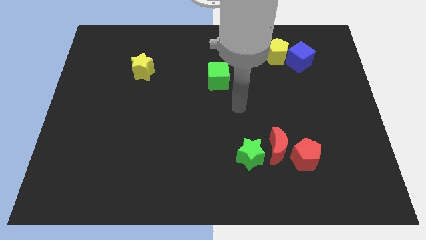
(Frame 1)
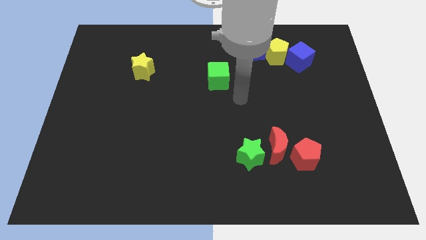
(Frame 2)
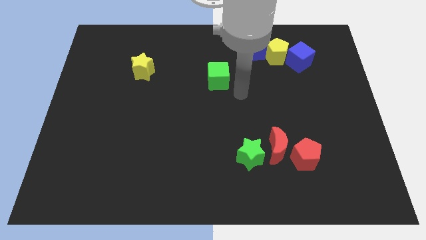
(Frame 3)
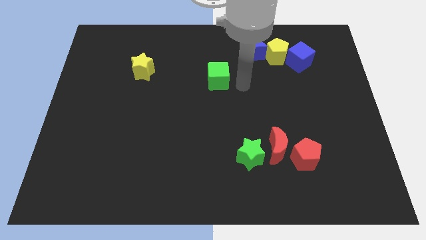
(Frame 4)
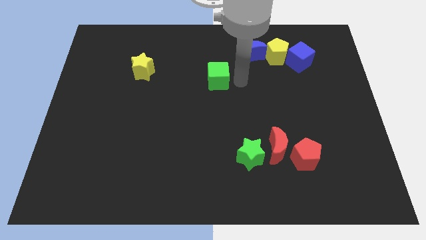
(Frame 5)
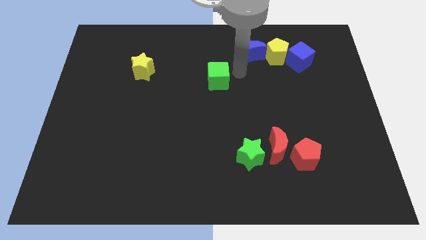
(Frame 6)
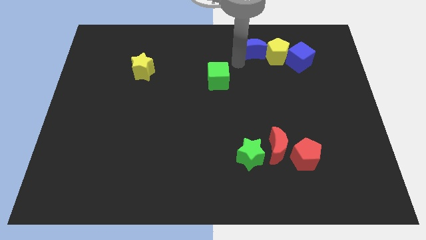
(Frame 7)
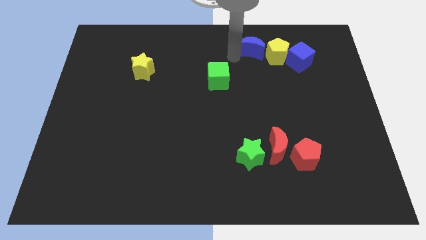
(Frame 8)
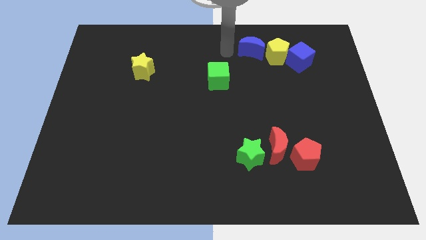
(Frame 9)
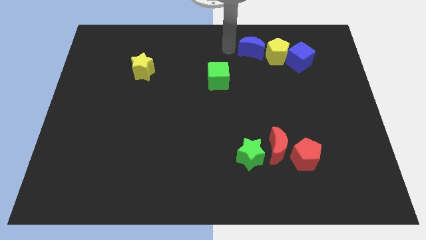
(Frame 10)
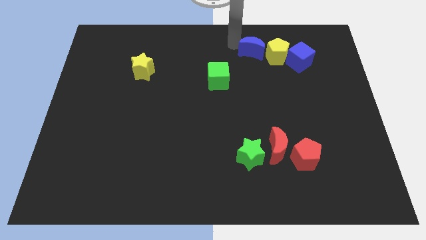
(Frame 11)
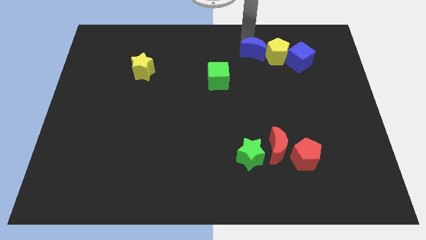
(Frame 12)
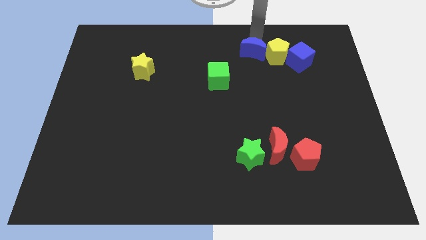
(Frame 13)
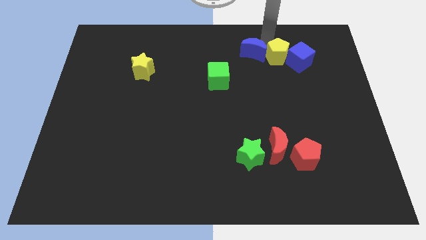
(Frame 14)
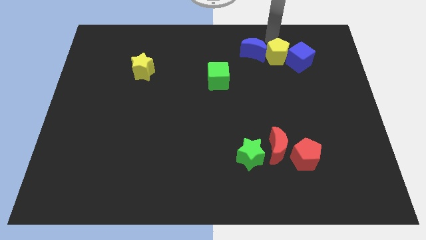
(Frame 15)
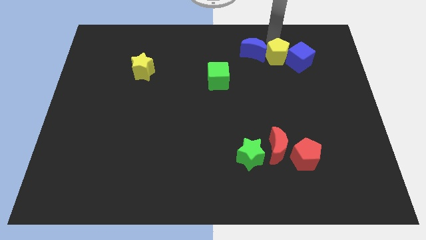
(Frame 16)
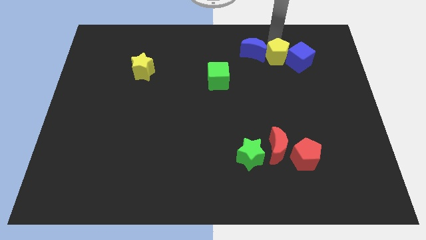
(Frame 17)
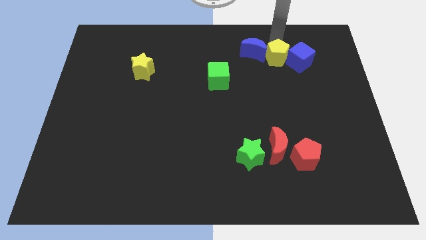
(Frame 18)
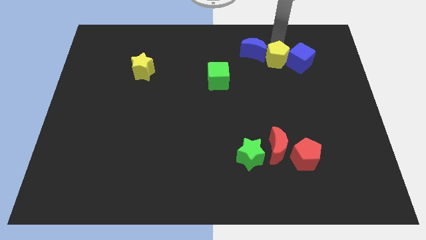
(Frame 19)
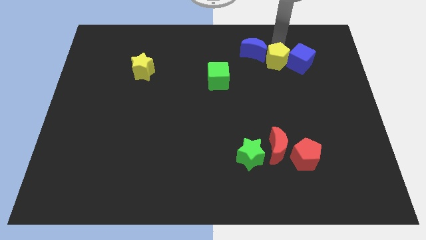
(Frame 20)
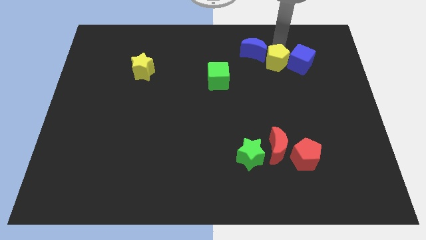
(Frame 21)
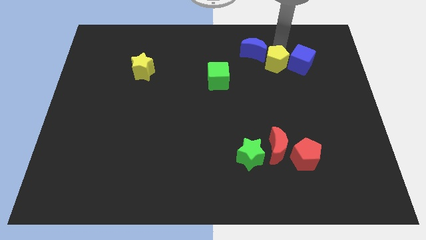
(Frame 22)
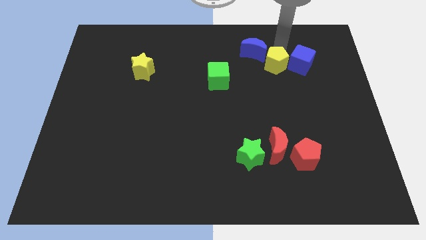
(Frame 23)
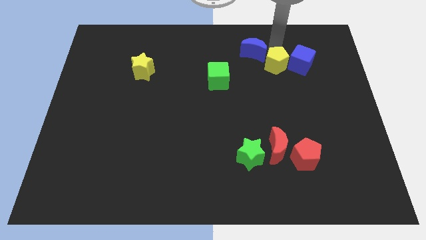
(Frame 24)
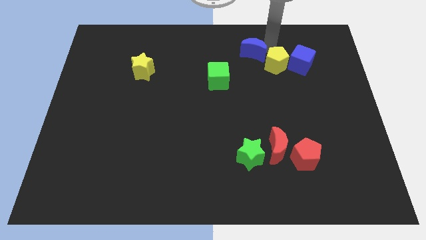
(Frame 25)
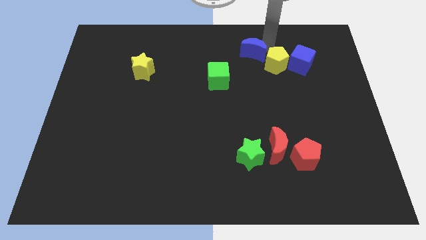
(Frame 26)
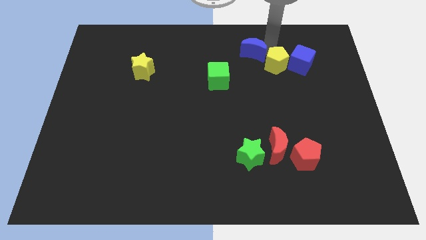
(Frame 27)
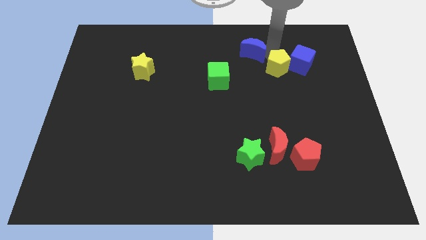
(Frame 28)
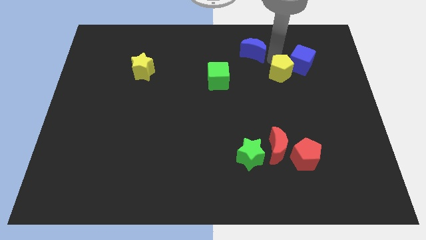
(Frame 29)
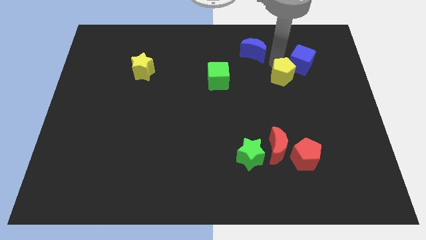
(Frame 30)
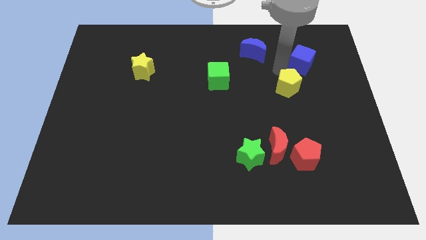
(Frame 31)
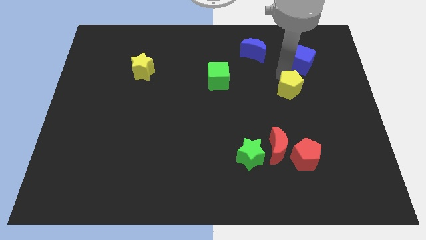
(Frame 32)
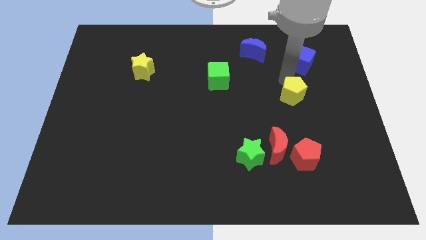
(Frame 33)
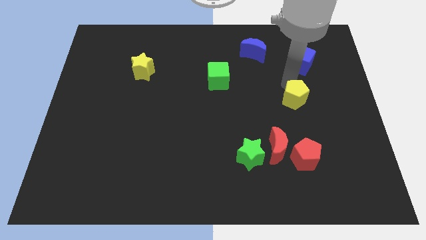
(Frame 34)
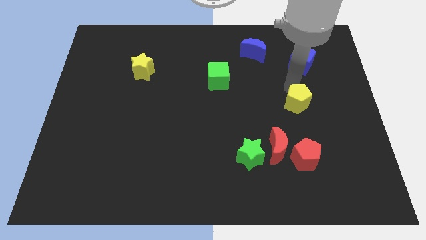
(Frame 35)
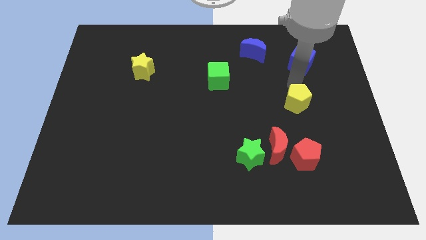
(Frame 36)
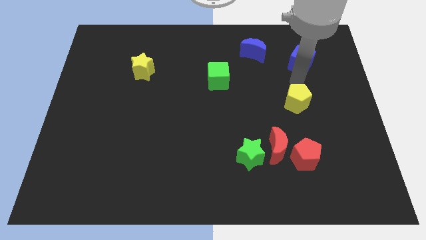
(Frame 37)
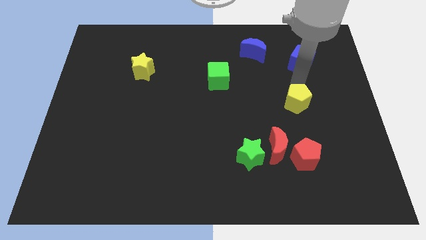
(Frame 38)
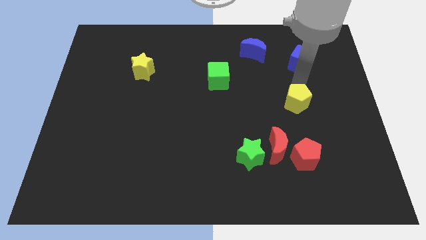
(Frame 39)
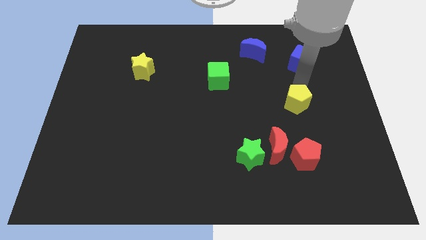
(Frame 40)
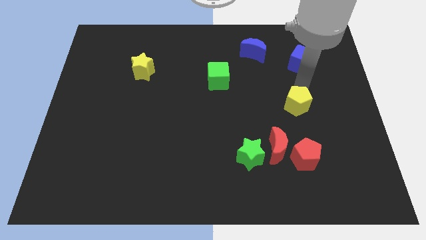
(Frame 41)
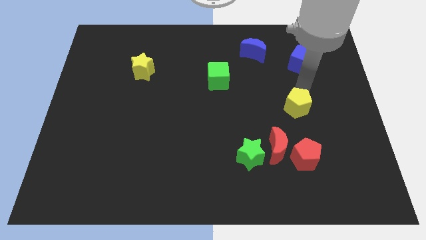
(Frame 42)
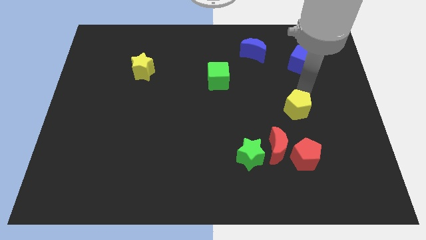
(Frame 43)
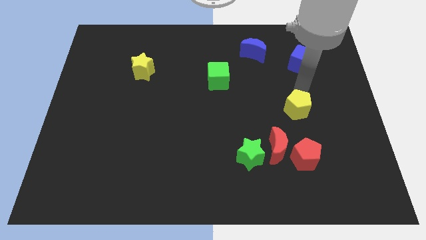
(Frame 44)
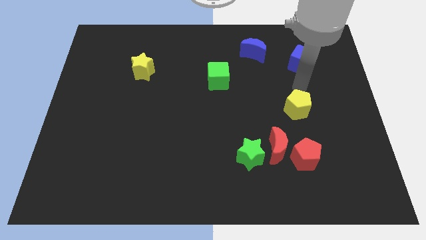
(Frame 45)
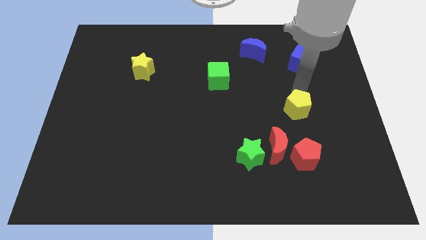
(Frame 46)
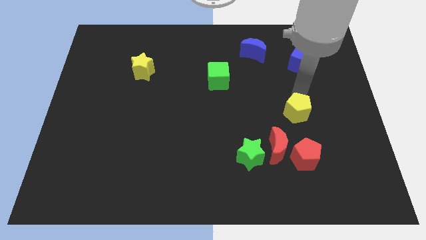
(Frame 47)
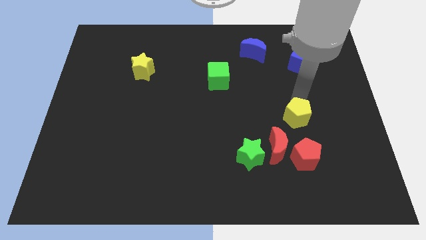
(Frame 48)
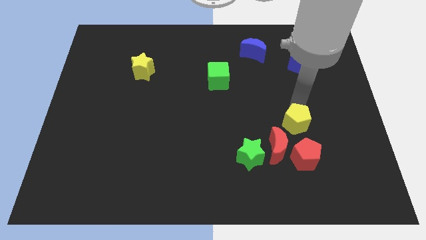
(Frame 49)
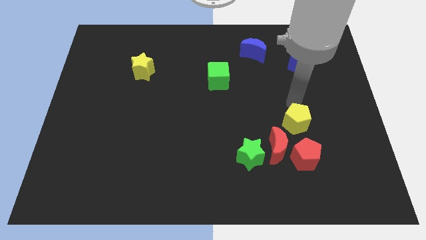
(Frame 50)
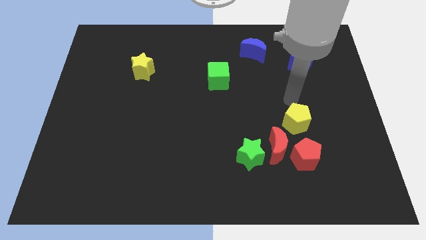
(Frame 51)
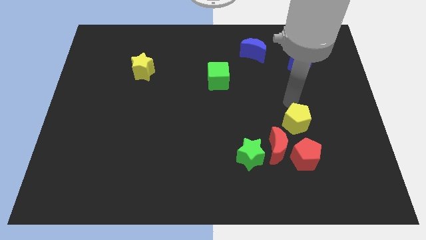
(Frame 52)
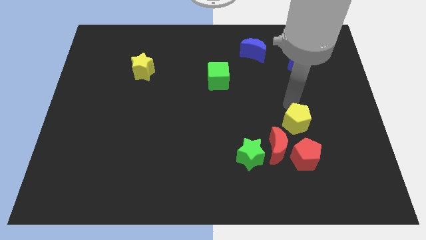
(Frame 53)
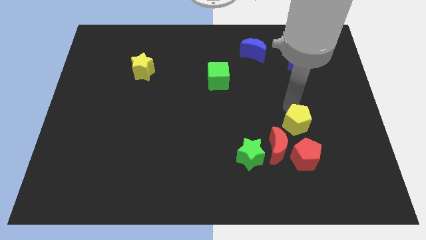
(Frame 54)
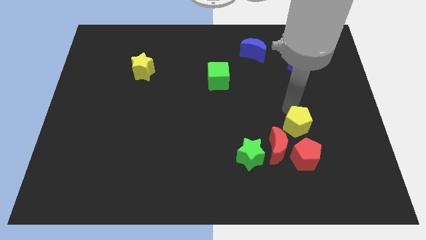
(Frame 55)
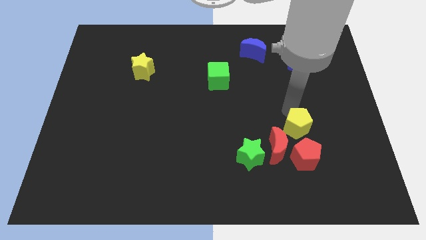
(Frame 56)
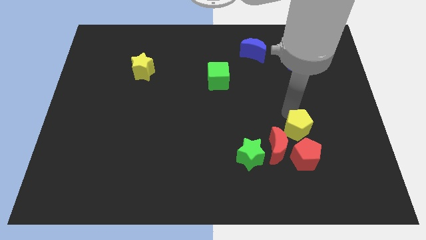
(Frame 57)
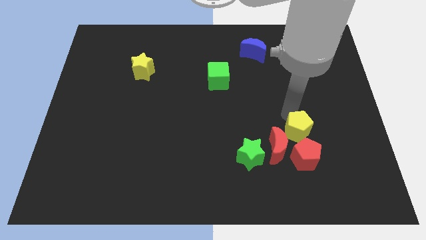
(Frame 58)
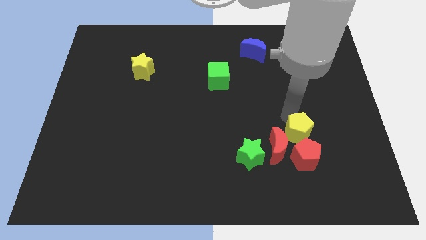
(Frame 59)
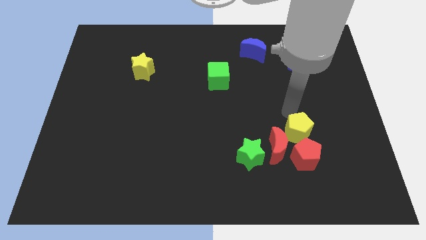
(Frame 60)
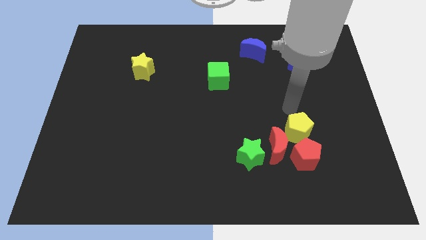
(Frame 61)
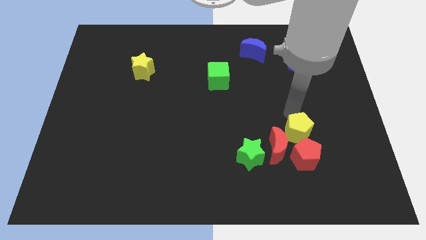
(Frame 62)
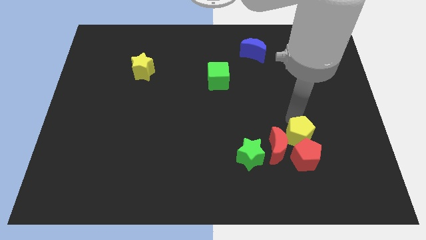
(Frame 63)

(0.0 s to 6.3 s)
put the yellow pentagon next to the red pentagon

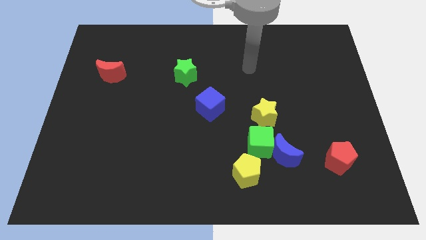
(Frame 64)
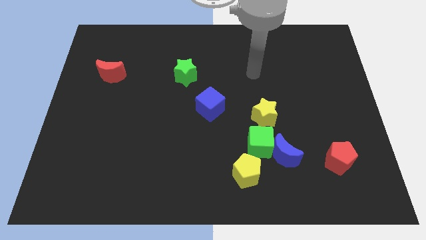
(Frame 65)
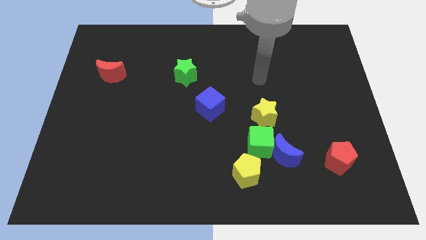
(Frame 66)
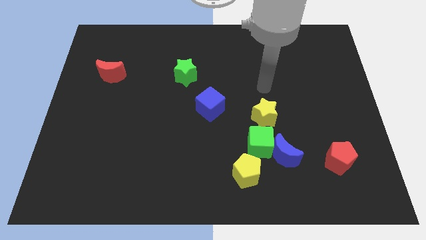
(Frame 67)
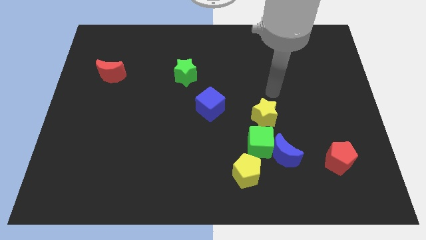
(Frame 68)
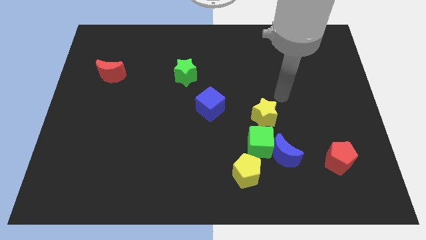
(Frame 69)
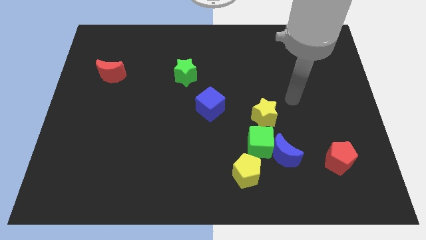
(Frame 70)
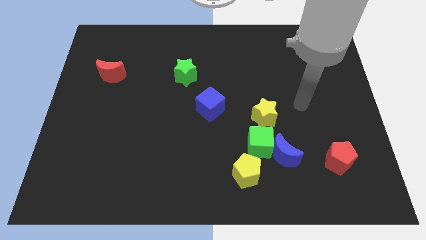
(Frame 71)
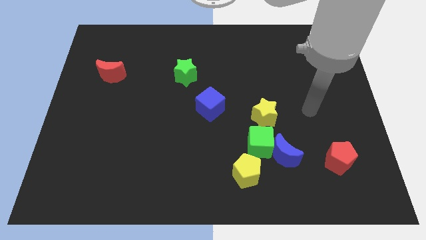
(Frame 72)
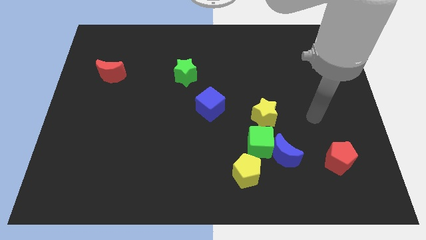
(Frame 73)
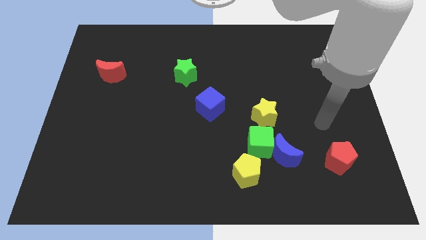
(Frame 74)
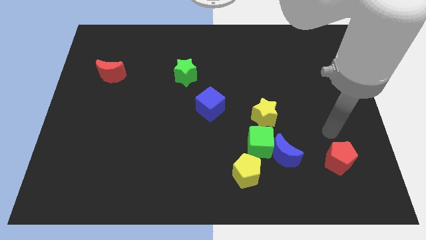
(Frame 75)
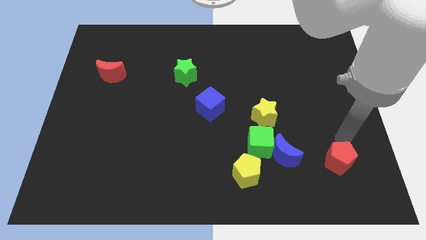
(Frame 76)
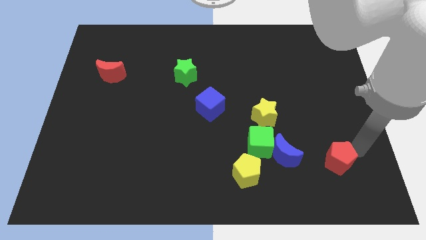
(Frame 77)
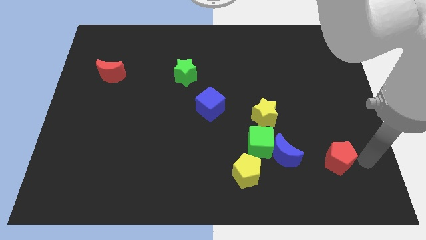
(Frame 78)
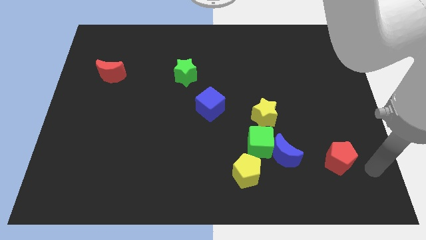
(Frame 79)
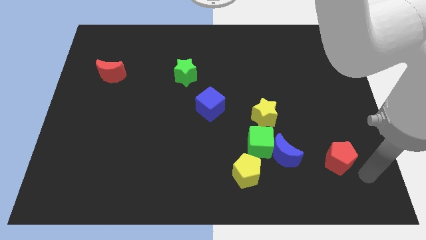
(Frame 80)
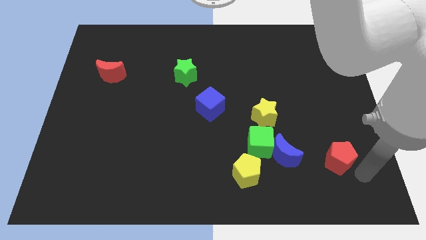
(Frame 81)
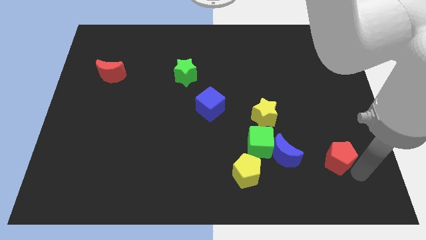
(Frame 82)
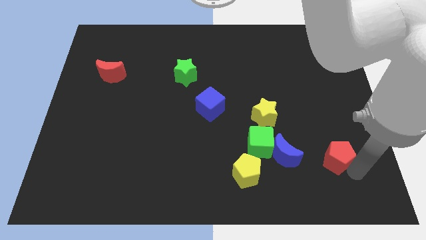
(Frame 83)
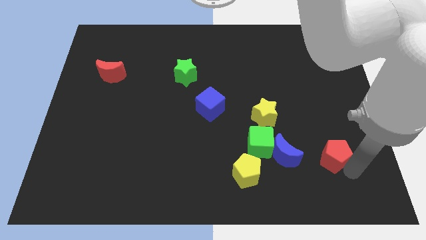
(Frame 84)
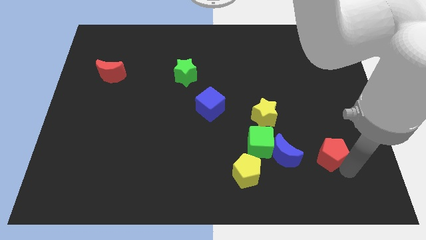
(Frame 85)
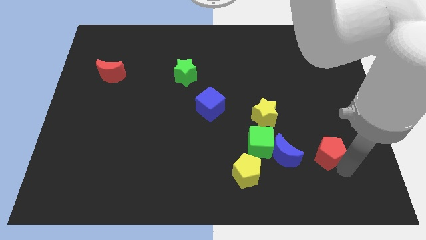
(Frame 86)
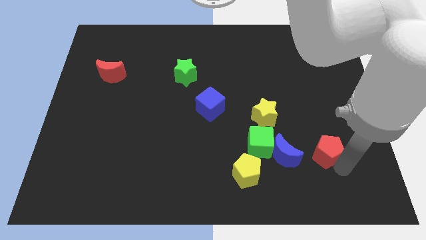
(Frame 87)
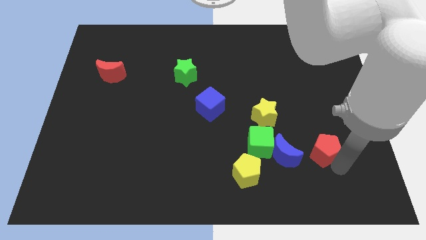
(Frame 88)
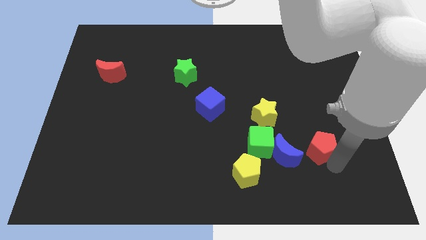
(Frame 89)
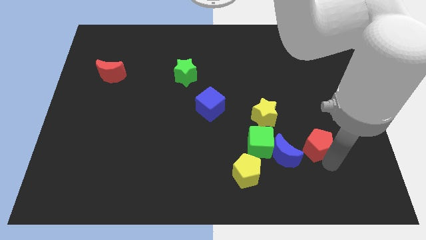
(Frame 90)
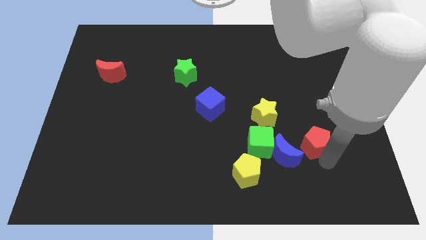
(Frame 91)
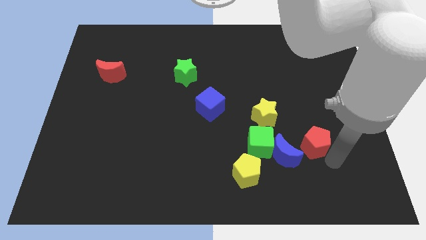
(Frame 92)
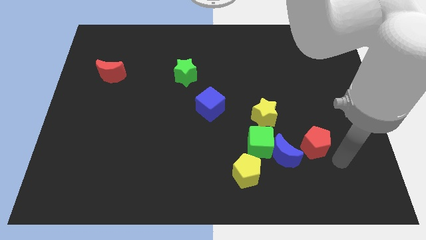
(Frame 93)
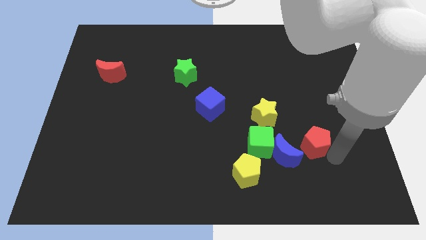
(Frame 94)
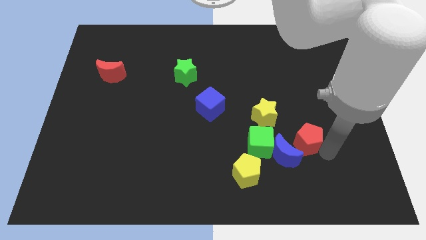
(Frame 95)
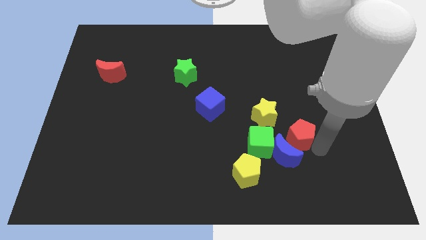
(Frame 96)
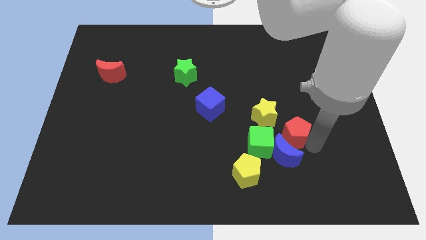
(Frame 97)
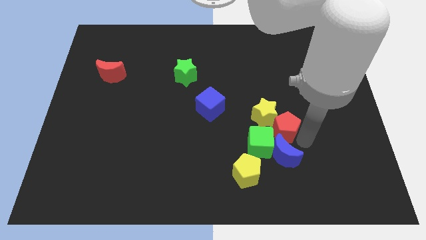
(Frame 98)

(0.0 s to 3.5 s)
put the red pentagon next to the yellow star
